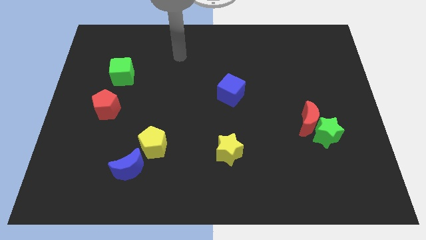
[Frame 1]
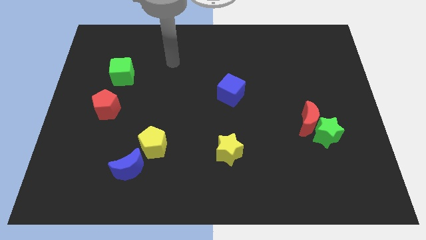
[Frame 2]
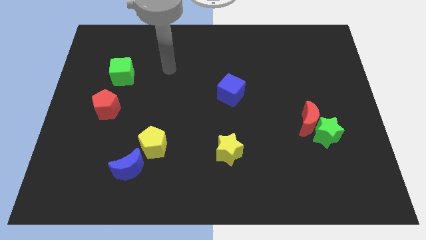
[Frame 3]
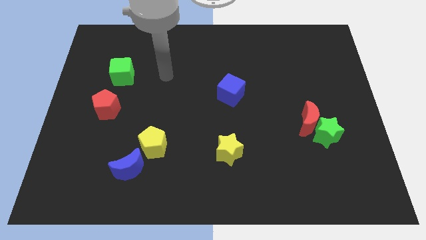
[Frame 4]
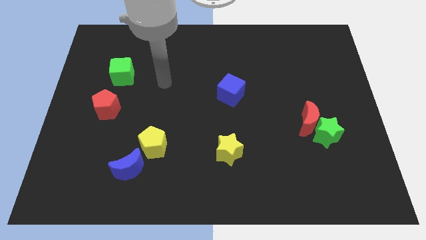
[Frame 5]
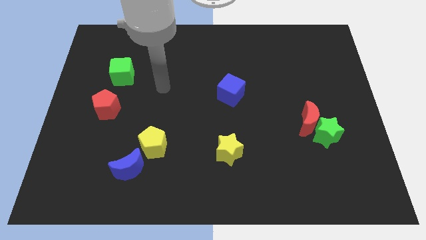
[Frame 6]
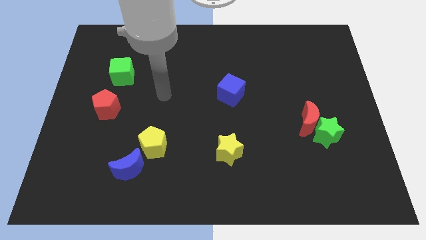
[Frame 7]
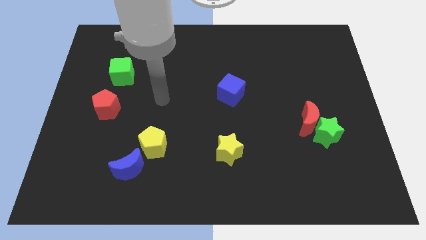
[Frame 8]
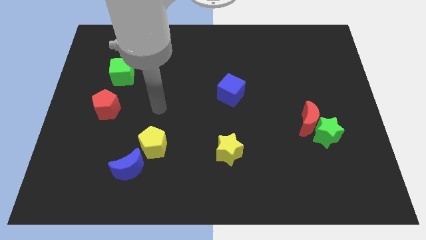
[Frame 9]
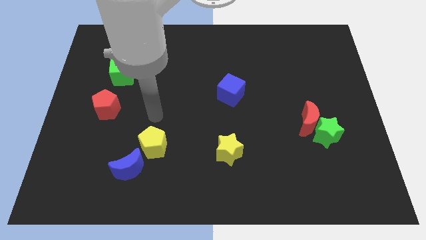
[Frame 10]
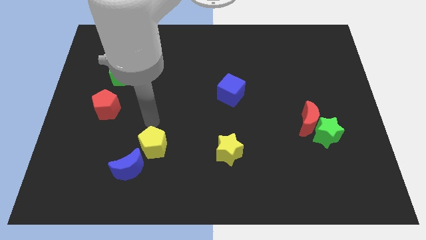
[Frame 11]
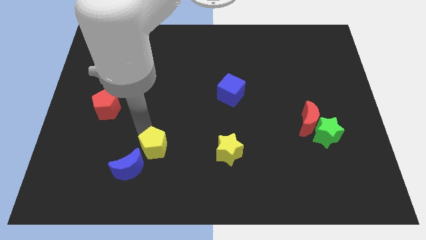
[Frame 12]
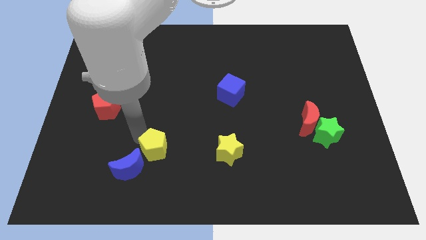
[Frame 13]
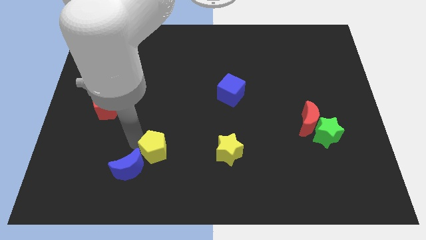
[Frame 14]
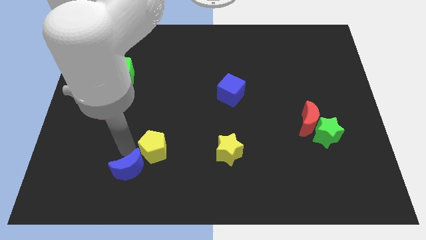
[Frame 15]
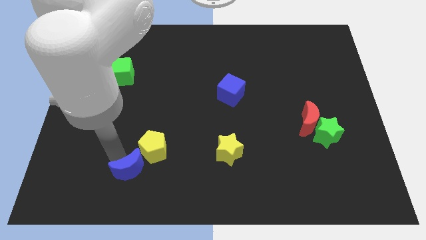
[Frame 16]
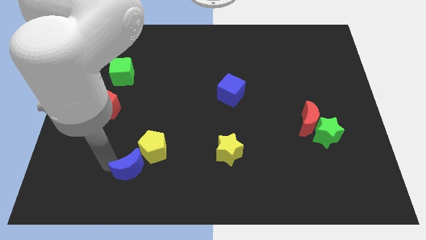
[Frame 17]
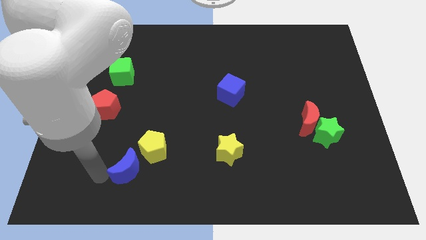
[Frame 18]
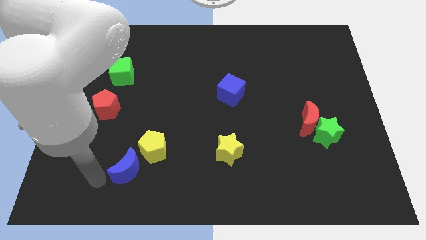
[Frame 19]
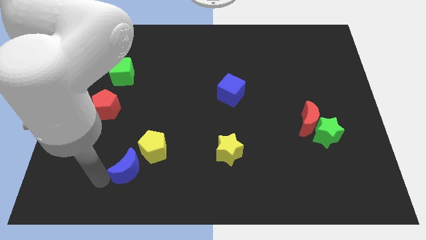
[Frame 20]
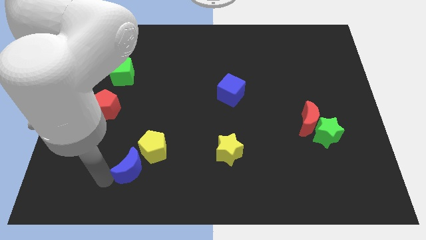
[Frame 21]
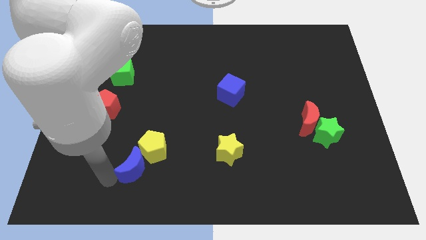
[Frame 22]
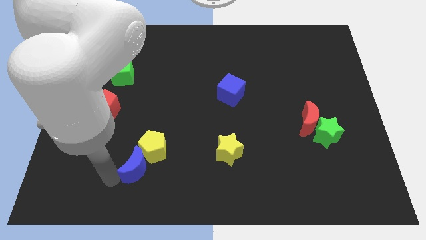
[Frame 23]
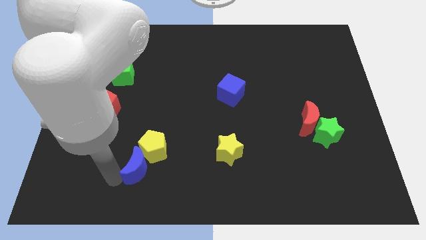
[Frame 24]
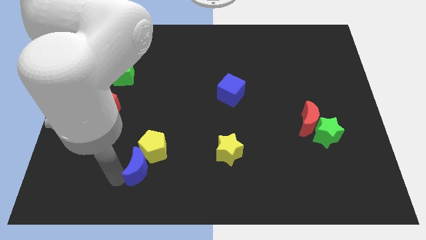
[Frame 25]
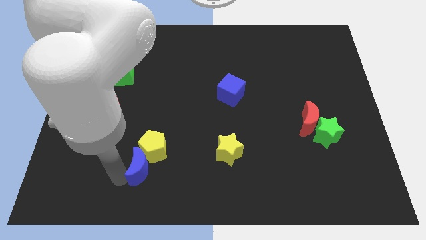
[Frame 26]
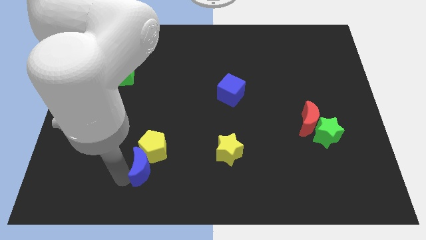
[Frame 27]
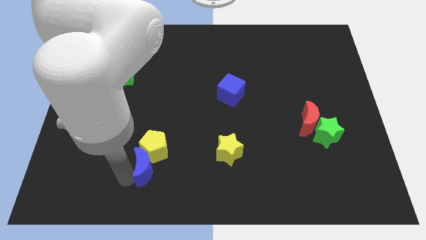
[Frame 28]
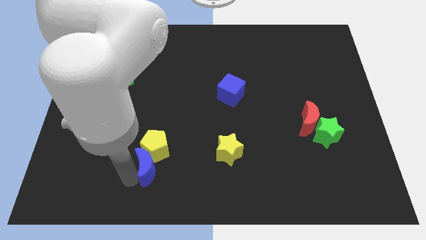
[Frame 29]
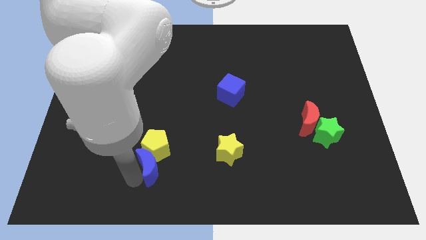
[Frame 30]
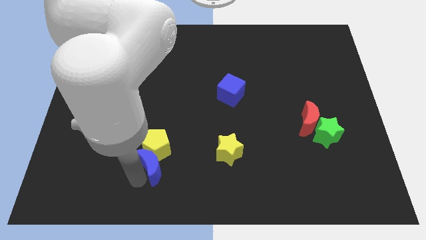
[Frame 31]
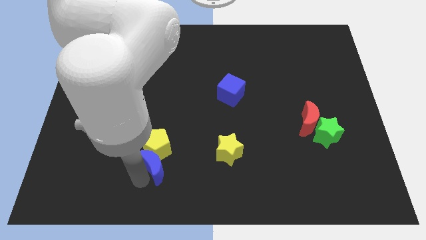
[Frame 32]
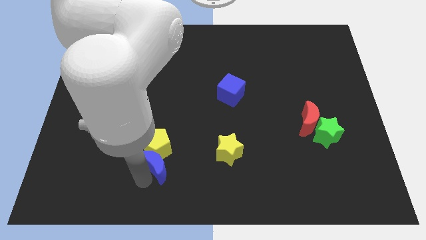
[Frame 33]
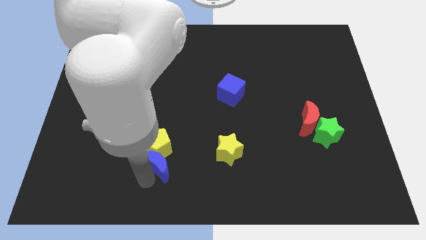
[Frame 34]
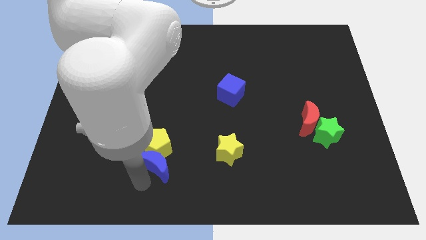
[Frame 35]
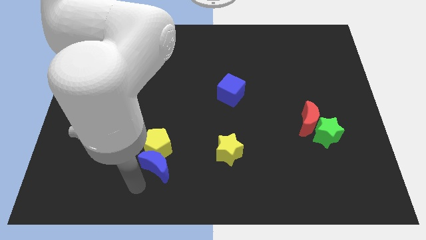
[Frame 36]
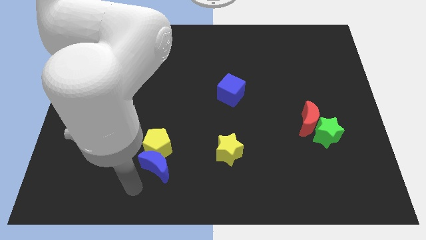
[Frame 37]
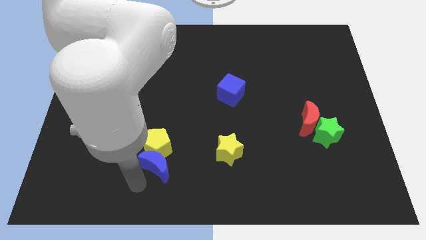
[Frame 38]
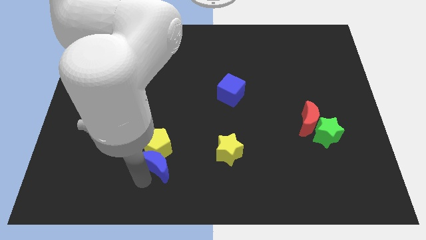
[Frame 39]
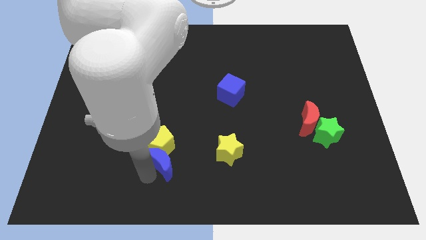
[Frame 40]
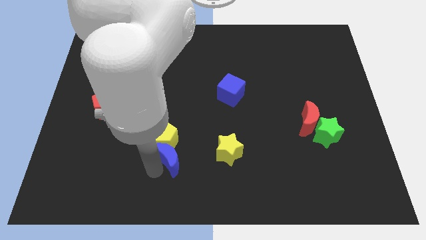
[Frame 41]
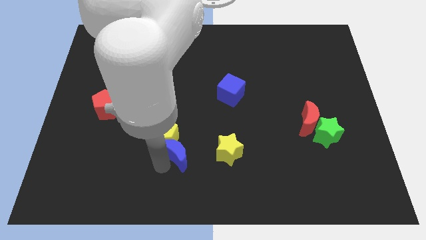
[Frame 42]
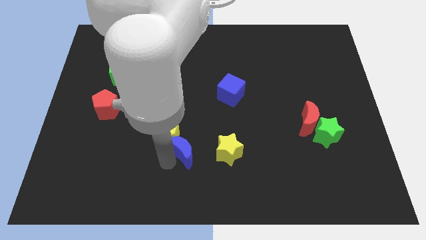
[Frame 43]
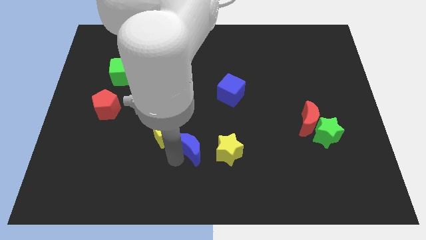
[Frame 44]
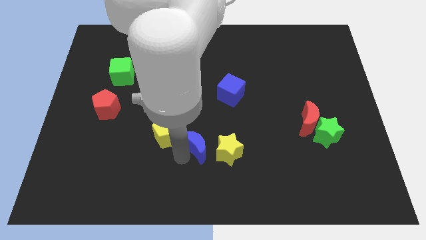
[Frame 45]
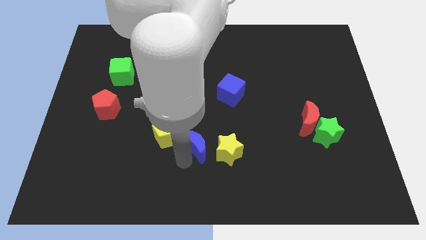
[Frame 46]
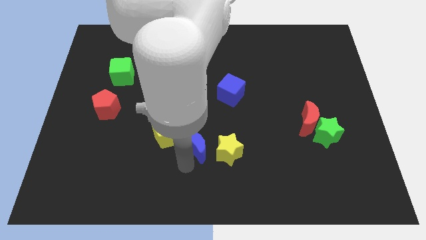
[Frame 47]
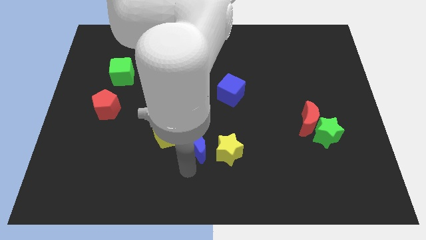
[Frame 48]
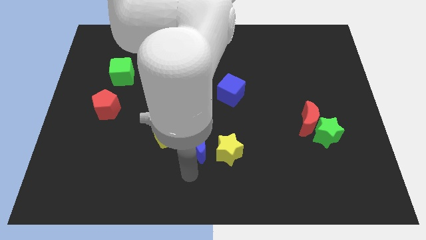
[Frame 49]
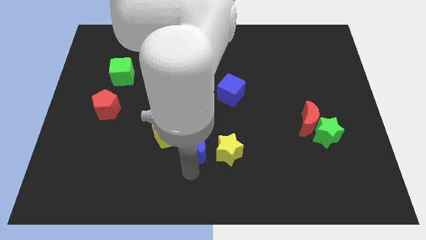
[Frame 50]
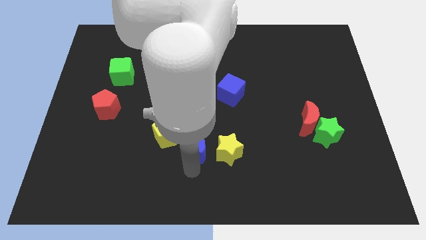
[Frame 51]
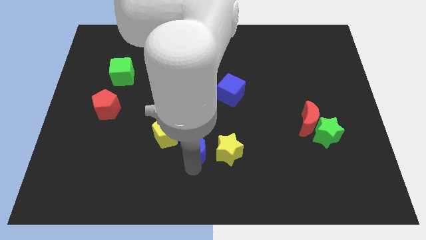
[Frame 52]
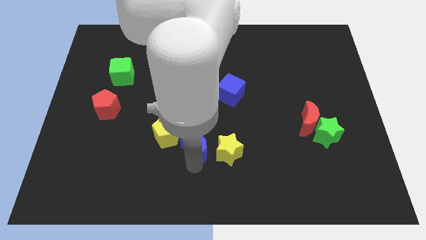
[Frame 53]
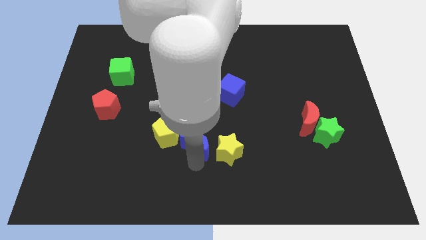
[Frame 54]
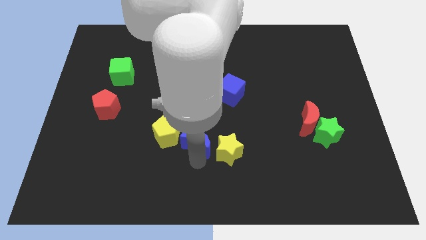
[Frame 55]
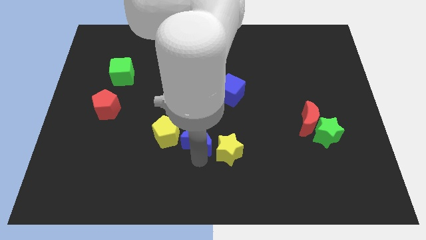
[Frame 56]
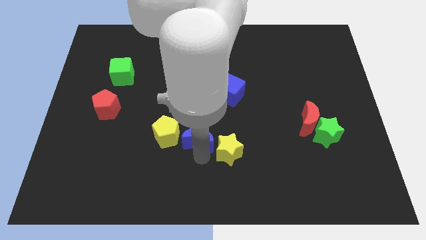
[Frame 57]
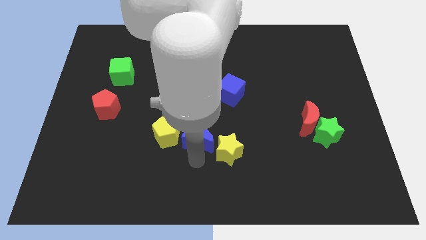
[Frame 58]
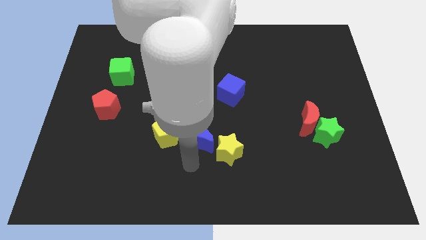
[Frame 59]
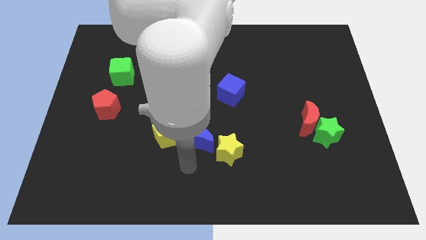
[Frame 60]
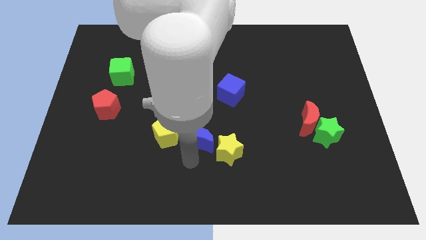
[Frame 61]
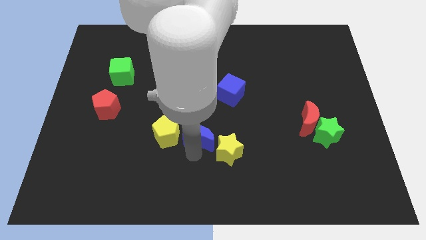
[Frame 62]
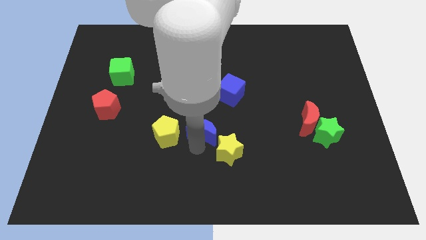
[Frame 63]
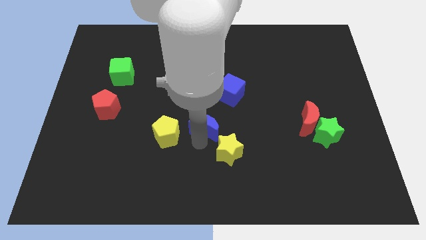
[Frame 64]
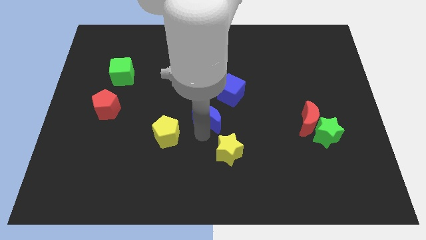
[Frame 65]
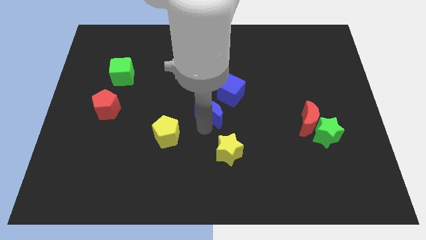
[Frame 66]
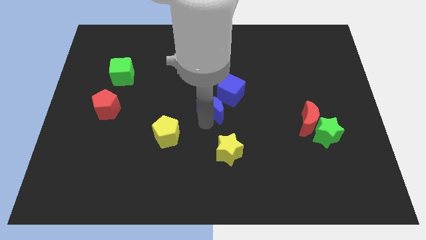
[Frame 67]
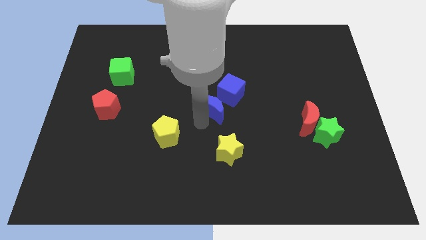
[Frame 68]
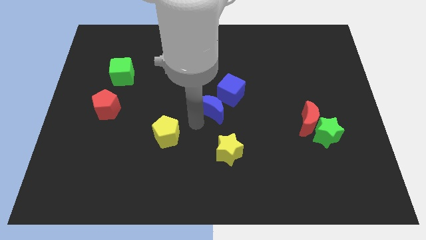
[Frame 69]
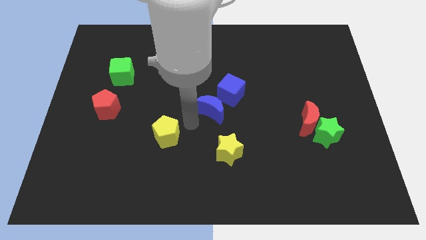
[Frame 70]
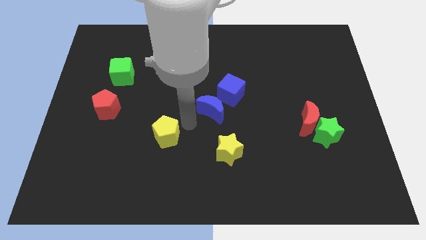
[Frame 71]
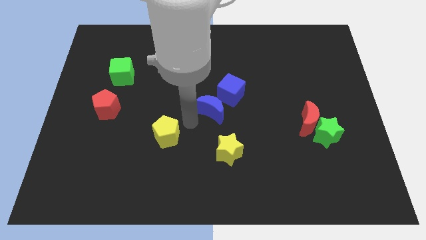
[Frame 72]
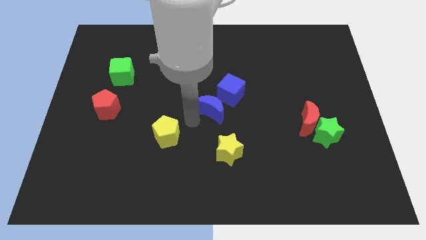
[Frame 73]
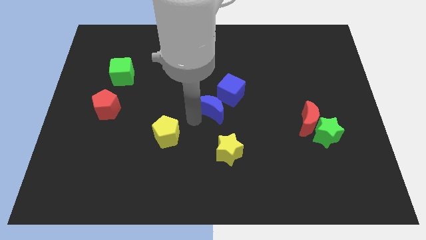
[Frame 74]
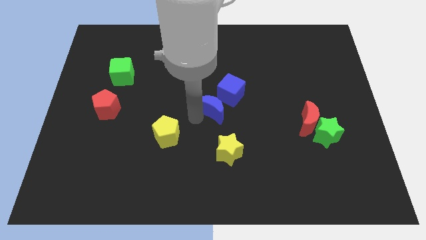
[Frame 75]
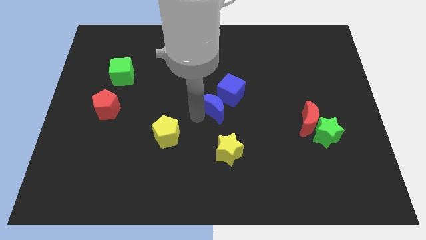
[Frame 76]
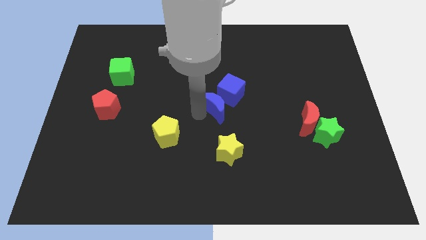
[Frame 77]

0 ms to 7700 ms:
put the blue moon next to the blue cube

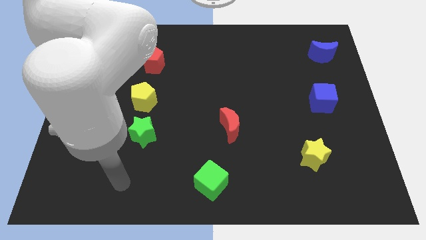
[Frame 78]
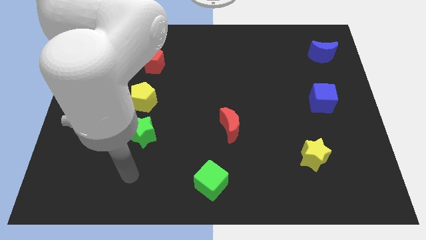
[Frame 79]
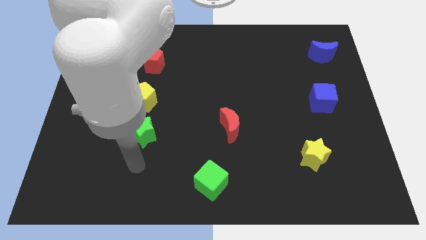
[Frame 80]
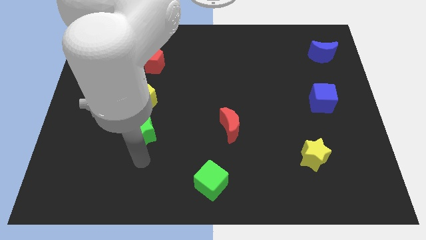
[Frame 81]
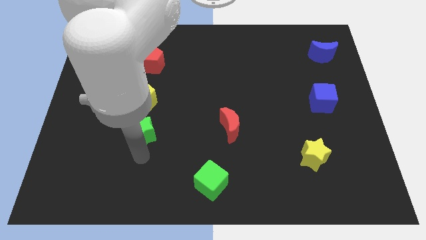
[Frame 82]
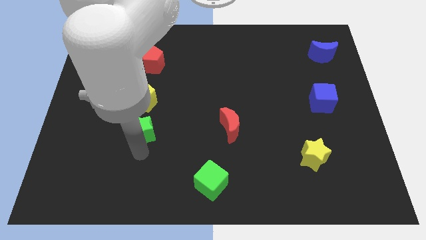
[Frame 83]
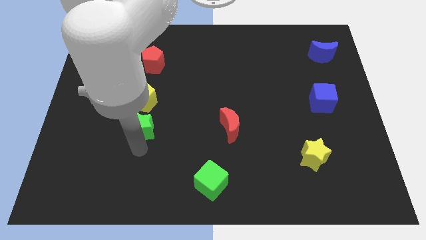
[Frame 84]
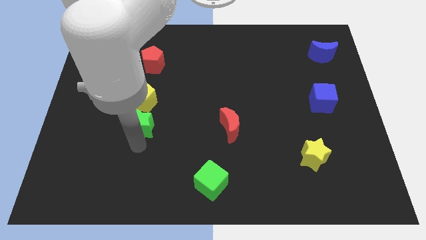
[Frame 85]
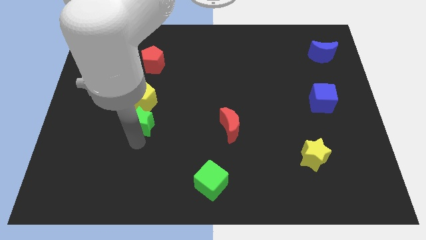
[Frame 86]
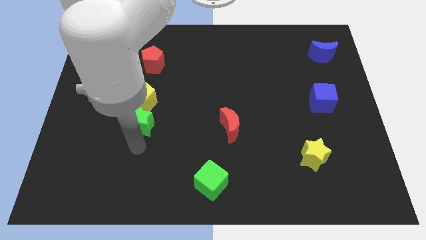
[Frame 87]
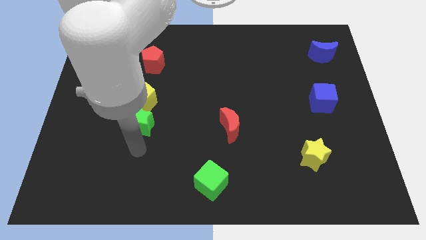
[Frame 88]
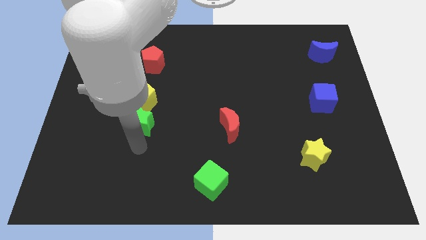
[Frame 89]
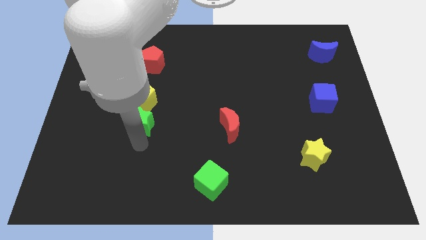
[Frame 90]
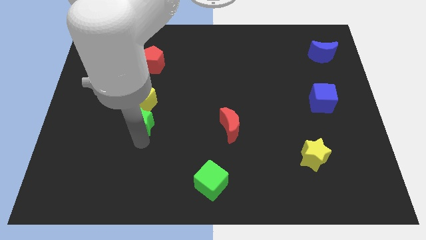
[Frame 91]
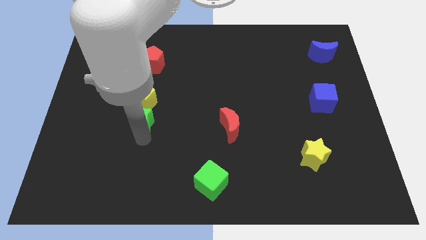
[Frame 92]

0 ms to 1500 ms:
slide the green star next to the yellow pentagon
